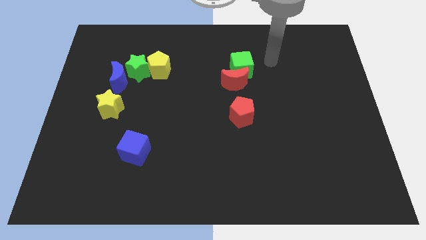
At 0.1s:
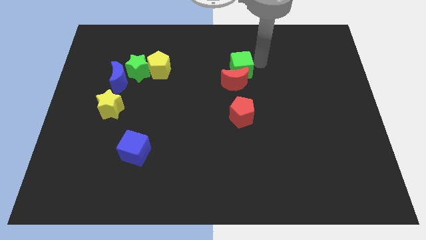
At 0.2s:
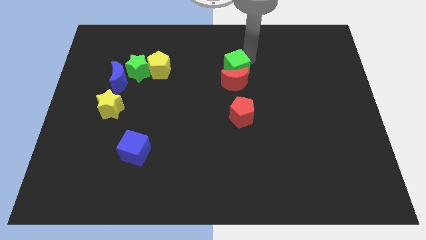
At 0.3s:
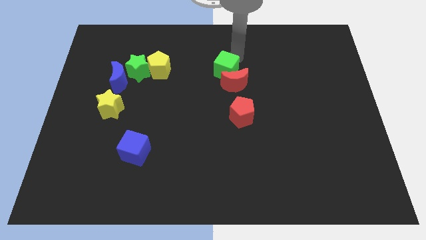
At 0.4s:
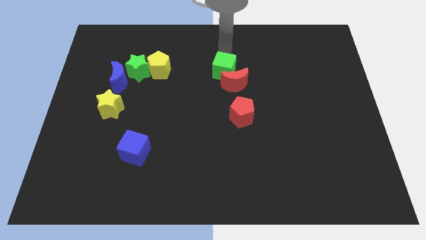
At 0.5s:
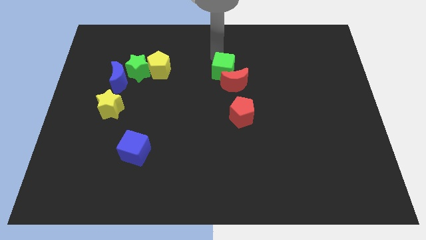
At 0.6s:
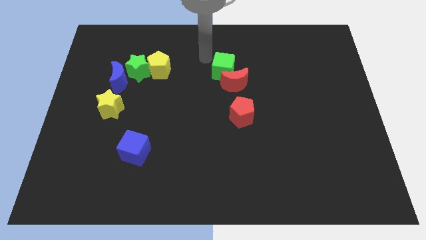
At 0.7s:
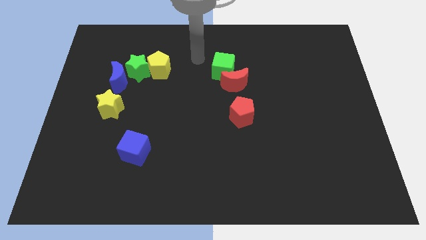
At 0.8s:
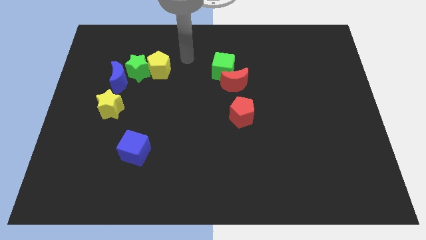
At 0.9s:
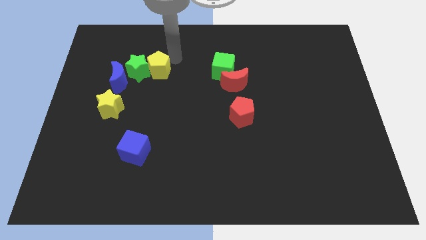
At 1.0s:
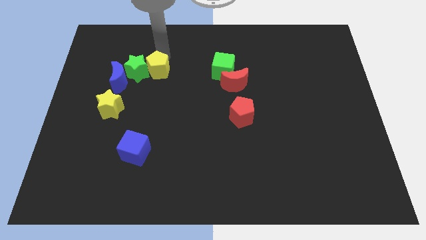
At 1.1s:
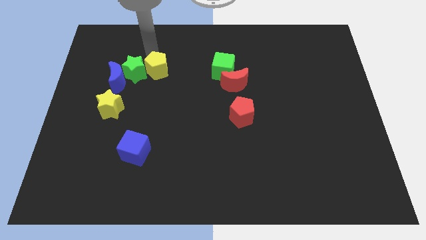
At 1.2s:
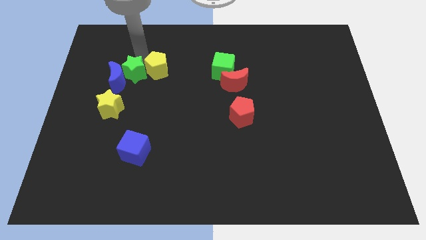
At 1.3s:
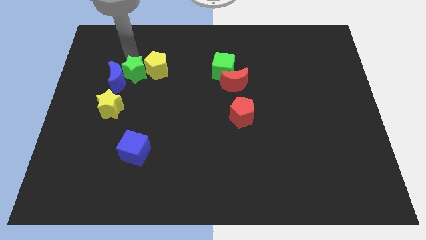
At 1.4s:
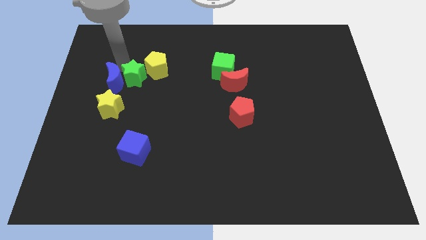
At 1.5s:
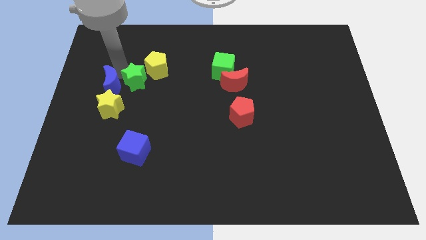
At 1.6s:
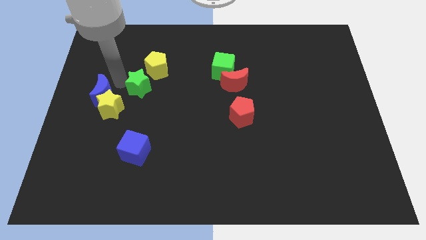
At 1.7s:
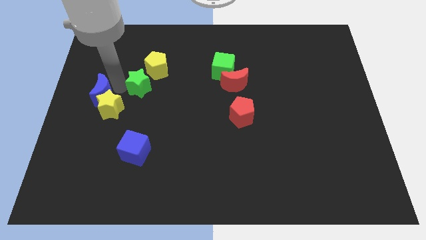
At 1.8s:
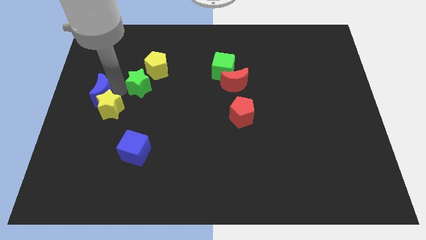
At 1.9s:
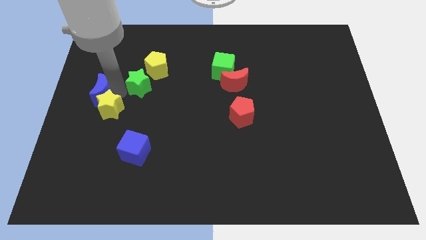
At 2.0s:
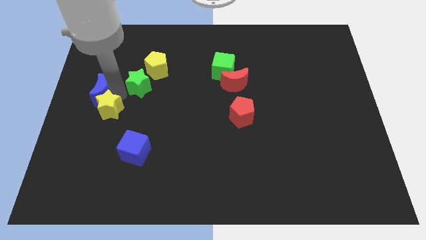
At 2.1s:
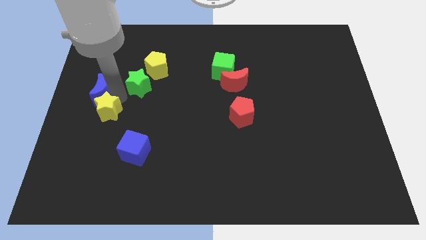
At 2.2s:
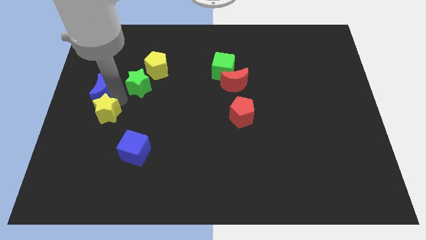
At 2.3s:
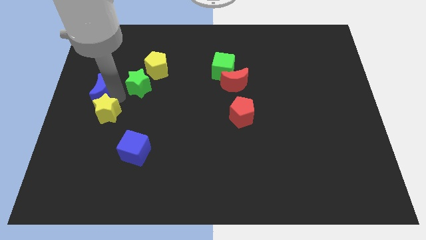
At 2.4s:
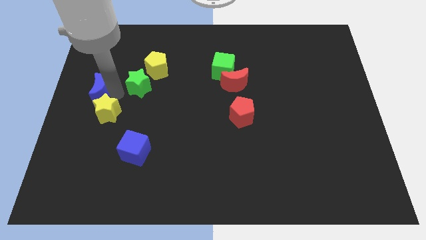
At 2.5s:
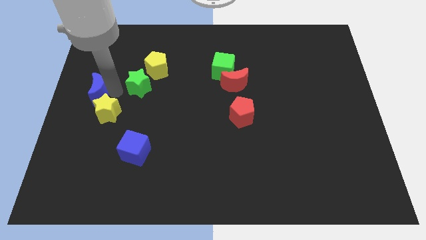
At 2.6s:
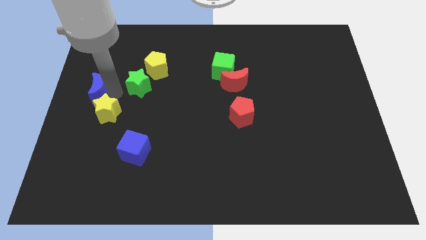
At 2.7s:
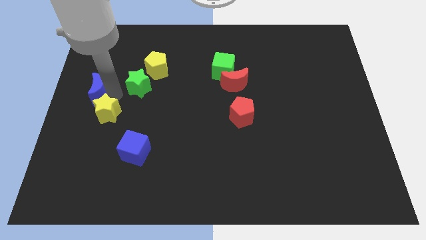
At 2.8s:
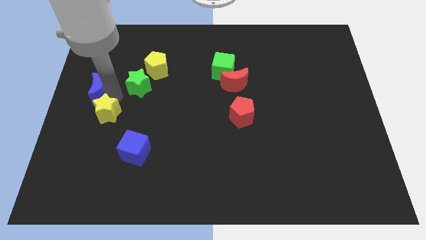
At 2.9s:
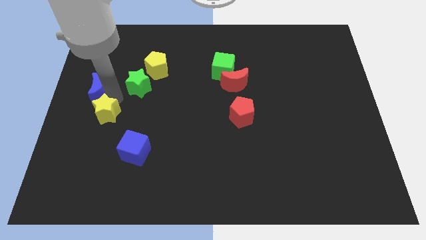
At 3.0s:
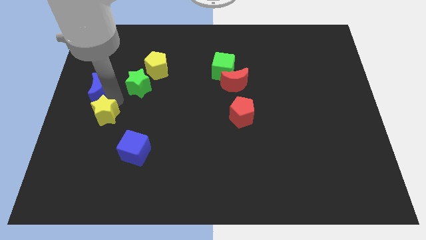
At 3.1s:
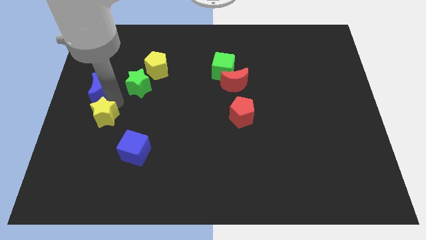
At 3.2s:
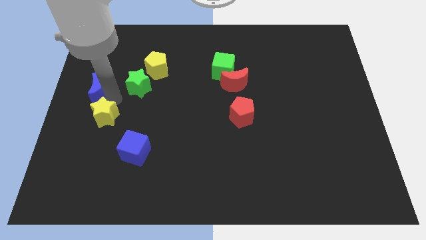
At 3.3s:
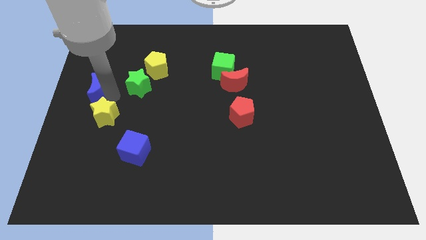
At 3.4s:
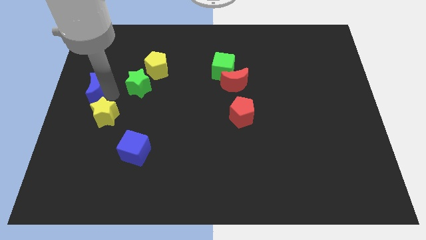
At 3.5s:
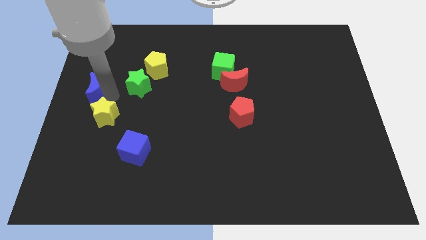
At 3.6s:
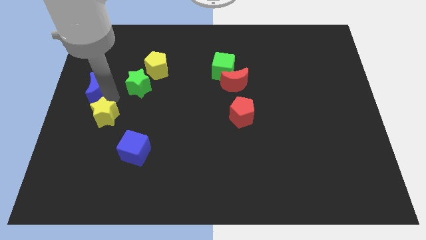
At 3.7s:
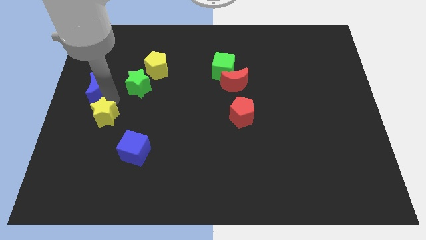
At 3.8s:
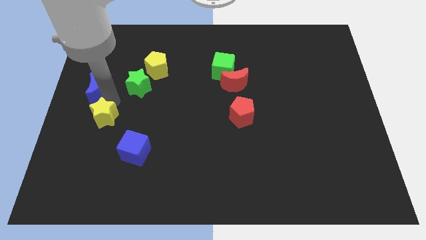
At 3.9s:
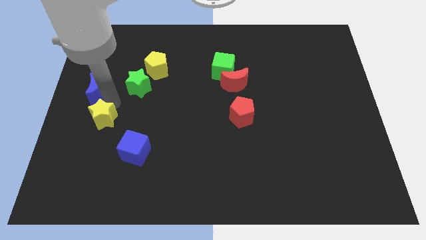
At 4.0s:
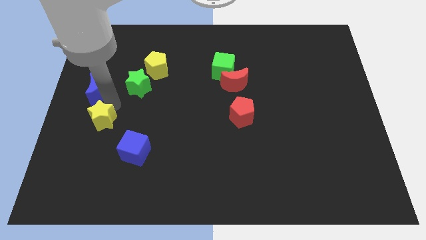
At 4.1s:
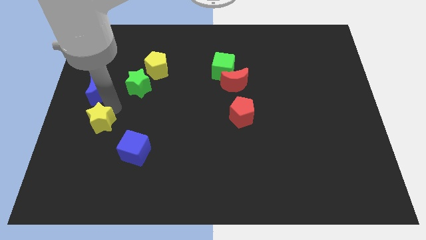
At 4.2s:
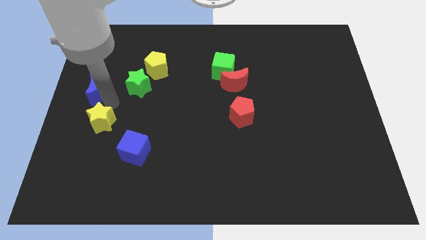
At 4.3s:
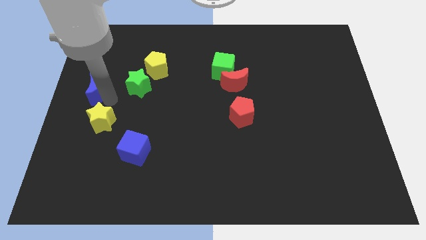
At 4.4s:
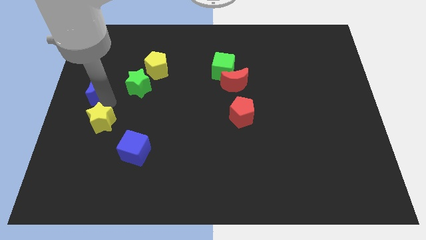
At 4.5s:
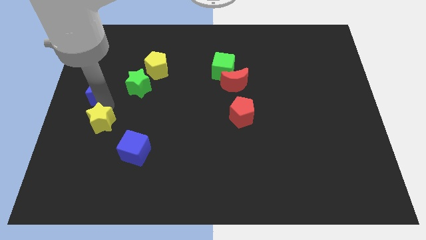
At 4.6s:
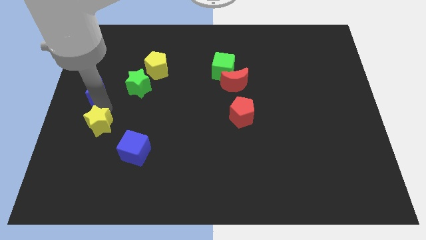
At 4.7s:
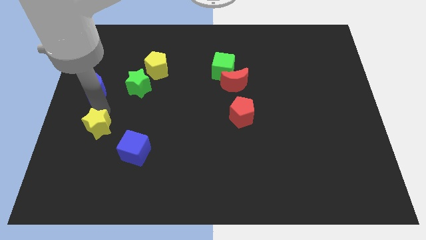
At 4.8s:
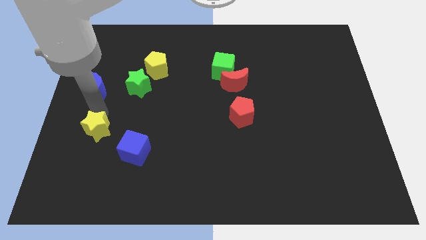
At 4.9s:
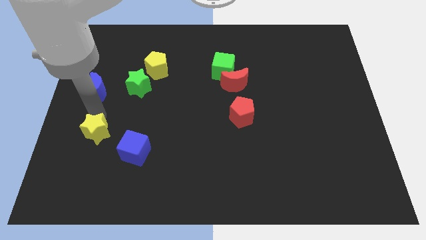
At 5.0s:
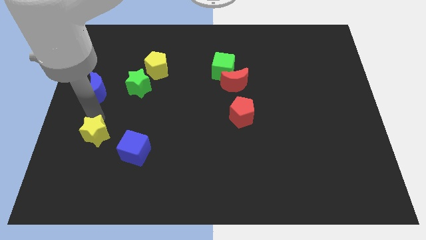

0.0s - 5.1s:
move the yellow star somewhat down

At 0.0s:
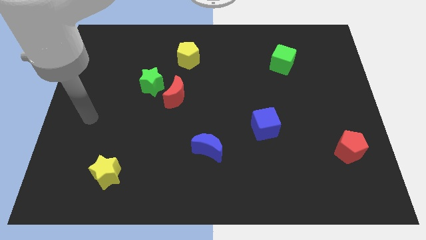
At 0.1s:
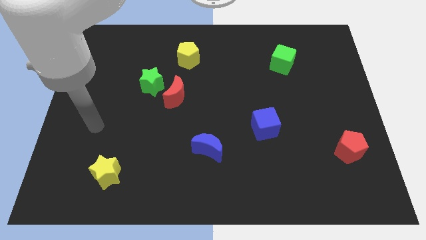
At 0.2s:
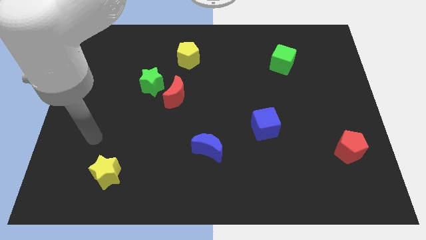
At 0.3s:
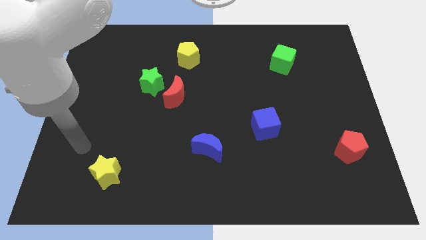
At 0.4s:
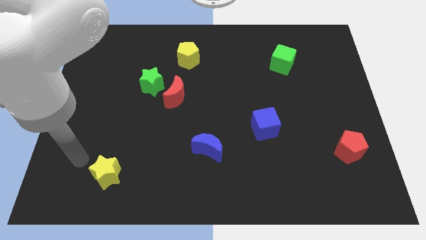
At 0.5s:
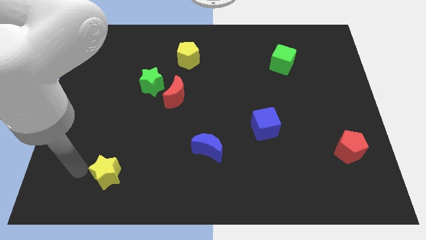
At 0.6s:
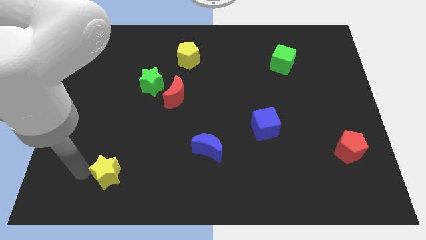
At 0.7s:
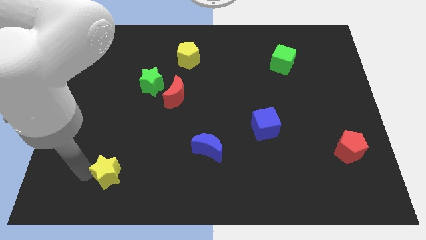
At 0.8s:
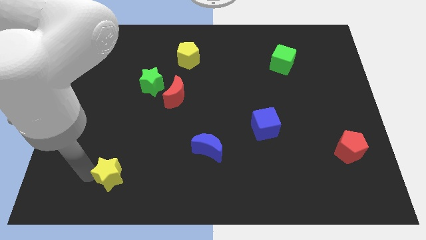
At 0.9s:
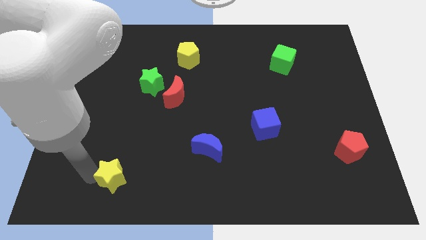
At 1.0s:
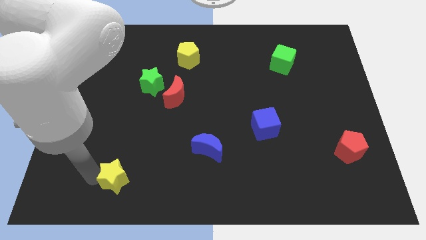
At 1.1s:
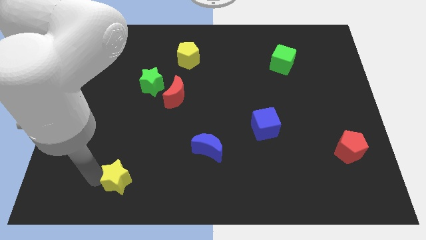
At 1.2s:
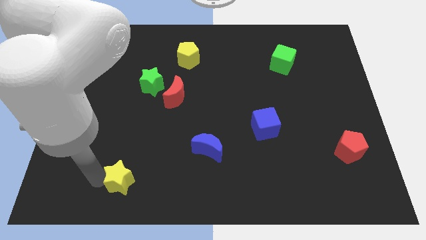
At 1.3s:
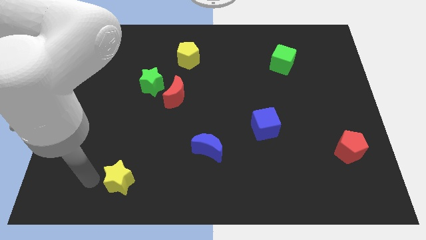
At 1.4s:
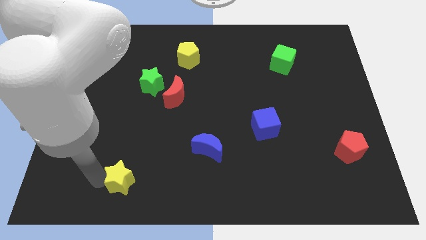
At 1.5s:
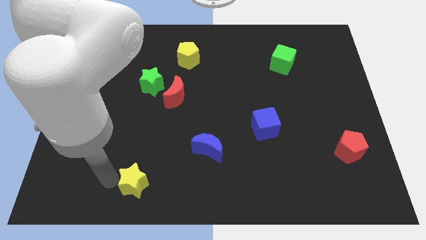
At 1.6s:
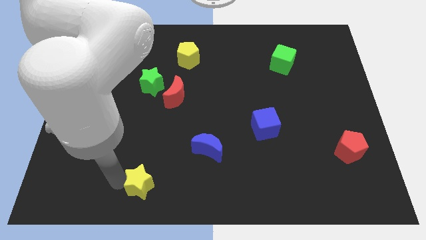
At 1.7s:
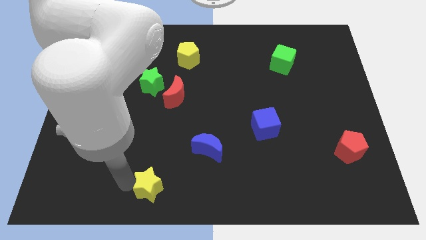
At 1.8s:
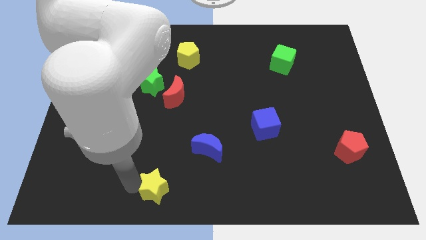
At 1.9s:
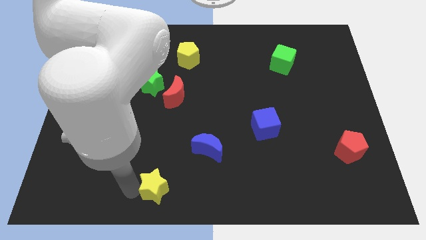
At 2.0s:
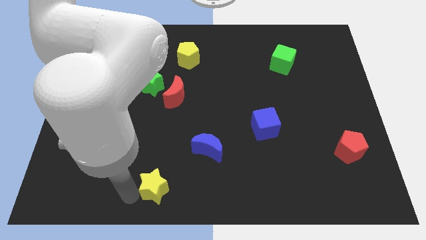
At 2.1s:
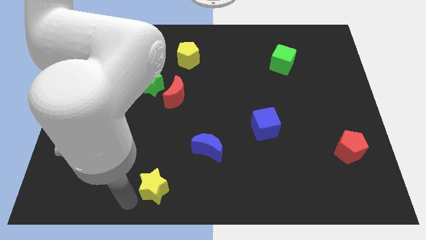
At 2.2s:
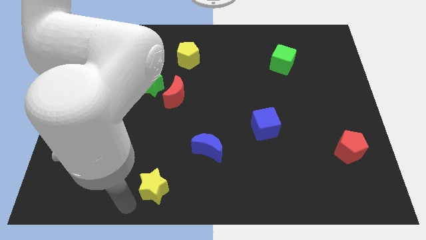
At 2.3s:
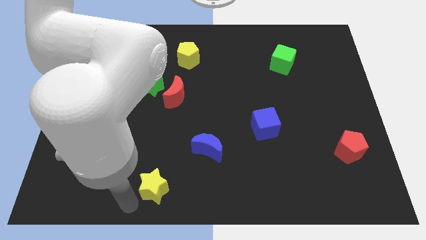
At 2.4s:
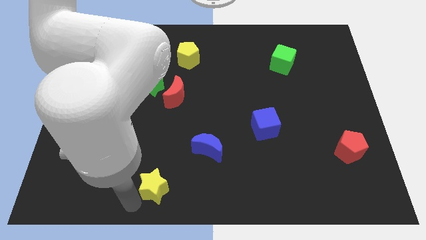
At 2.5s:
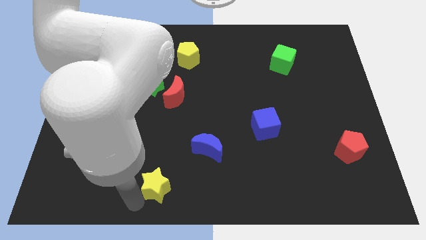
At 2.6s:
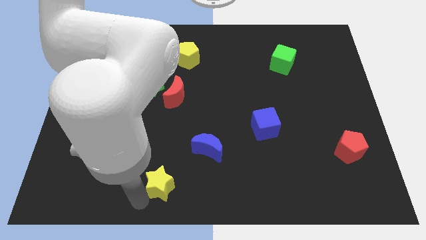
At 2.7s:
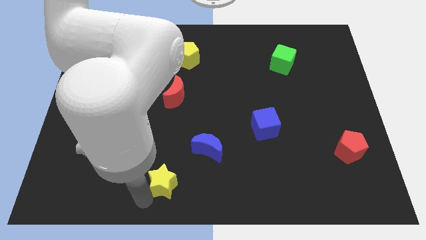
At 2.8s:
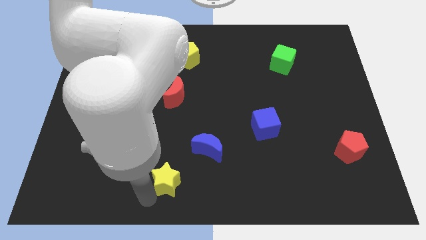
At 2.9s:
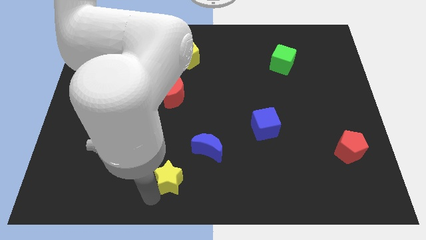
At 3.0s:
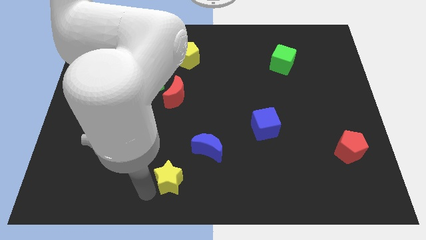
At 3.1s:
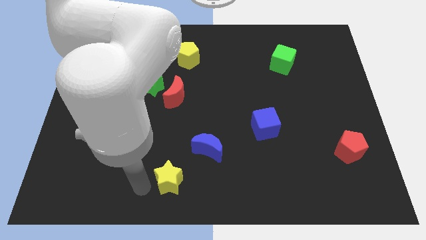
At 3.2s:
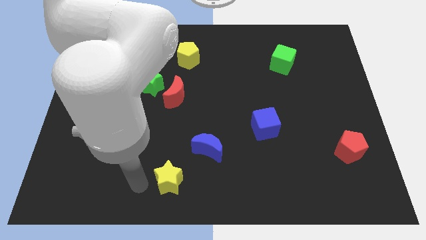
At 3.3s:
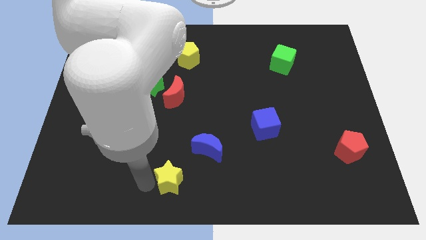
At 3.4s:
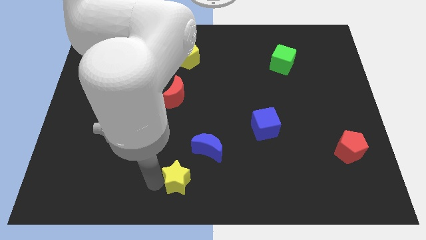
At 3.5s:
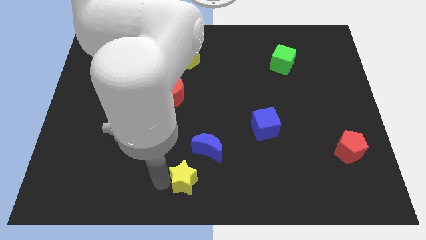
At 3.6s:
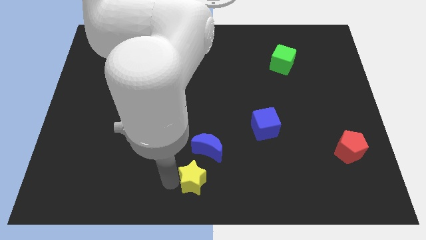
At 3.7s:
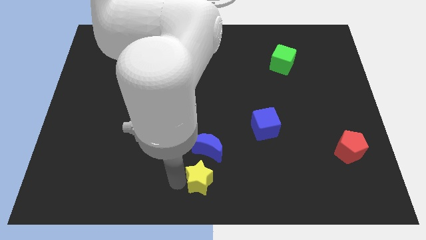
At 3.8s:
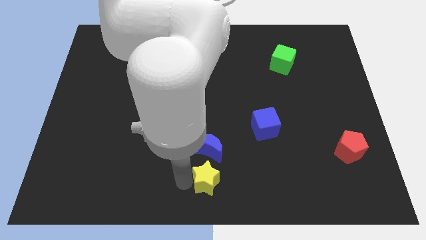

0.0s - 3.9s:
move the yellow star right
